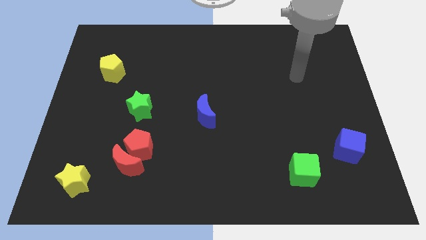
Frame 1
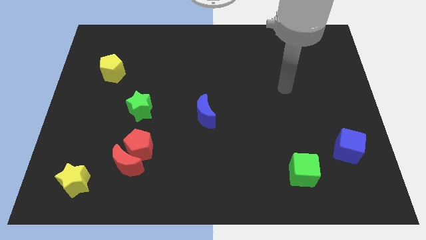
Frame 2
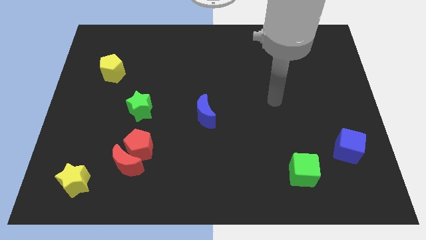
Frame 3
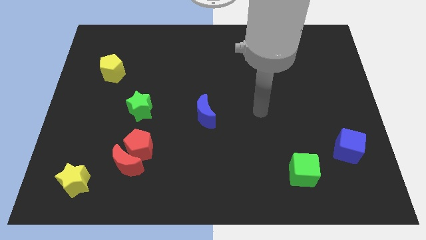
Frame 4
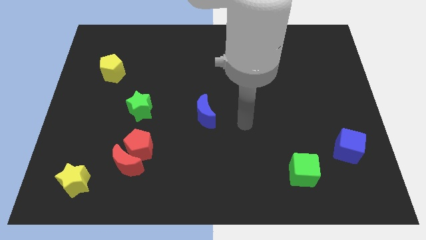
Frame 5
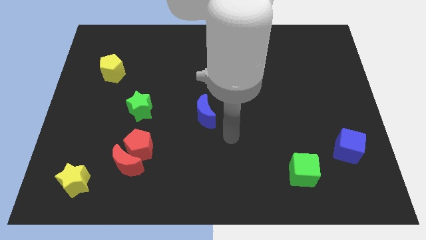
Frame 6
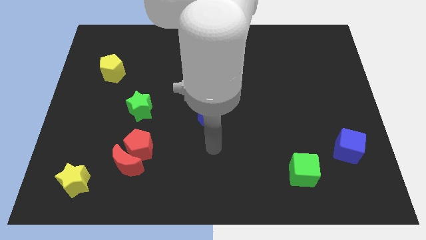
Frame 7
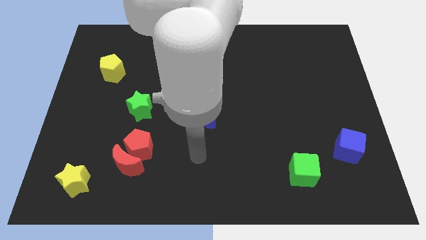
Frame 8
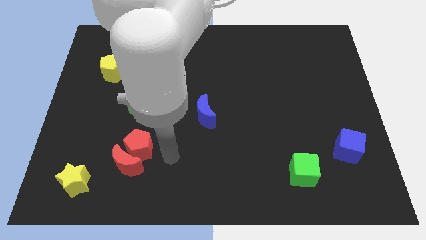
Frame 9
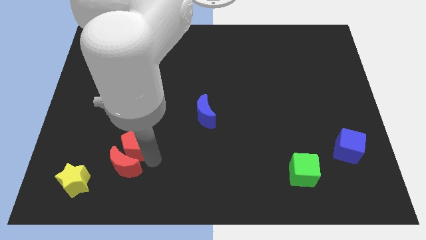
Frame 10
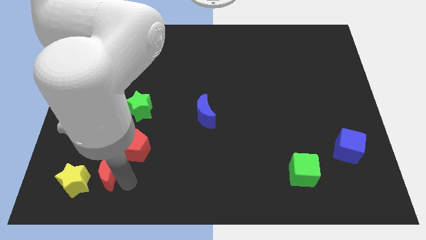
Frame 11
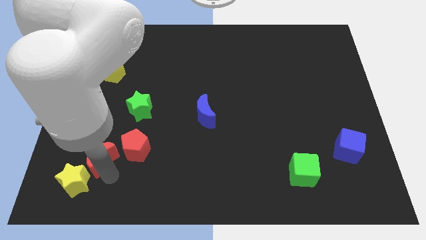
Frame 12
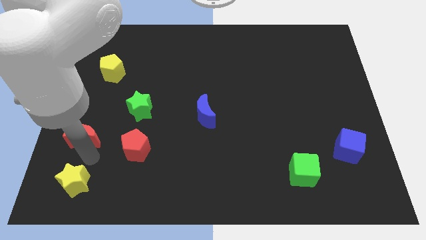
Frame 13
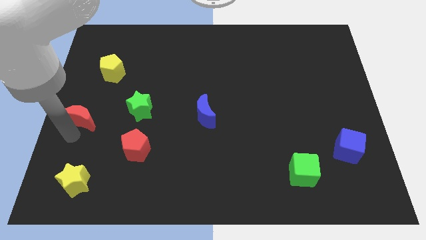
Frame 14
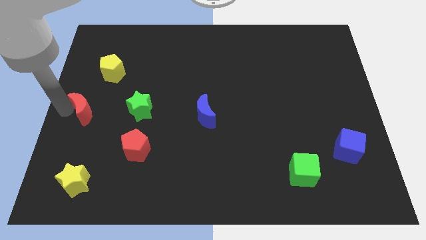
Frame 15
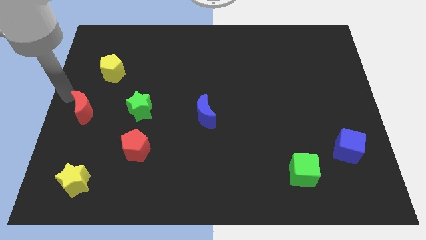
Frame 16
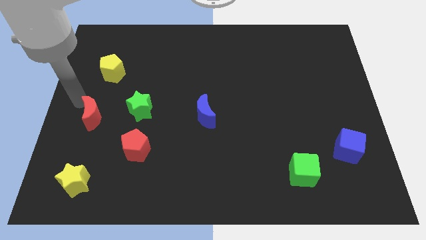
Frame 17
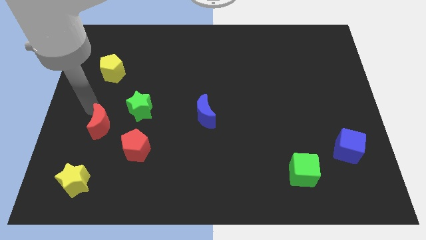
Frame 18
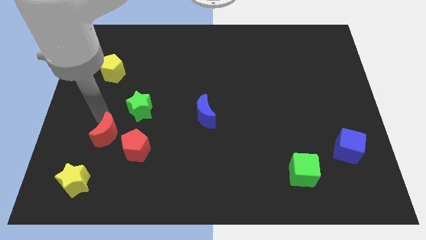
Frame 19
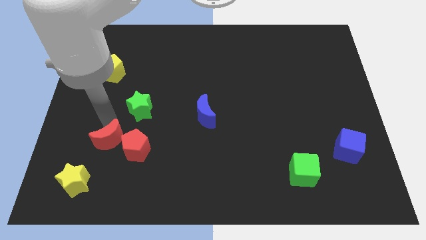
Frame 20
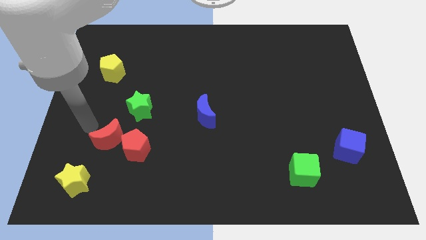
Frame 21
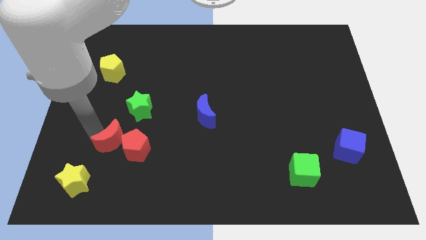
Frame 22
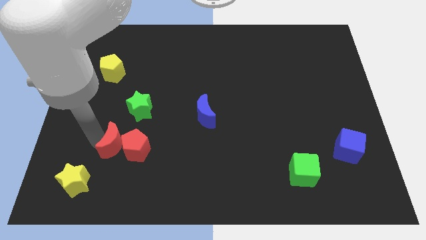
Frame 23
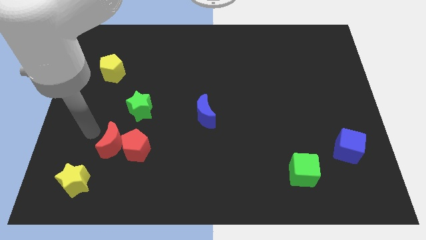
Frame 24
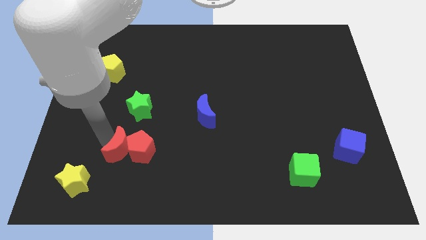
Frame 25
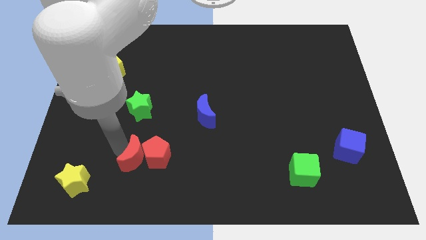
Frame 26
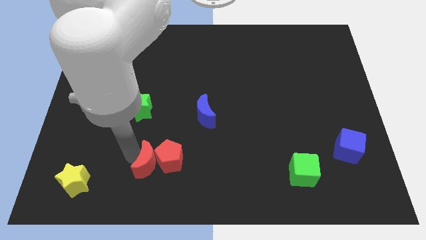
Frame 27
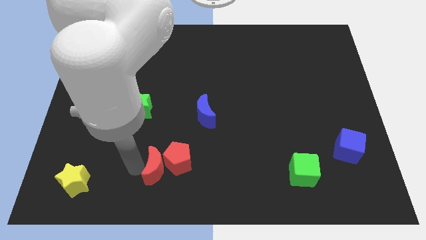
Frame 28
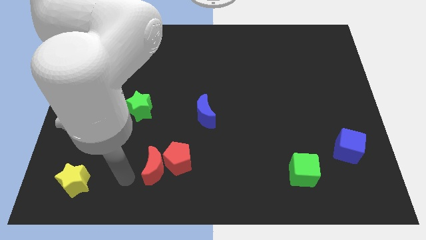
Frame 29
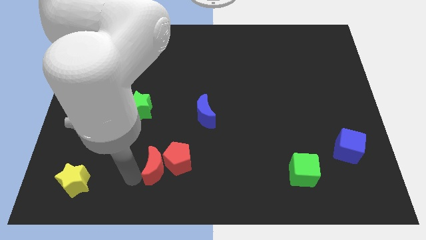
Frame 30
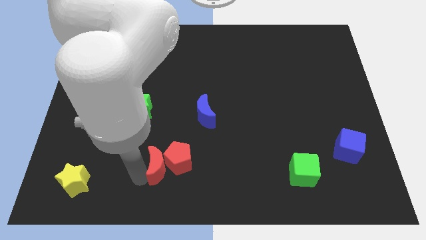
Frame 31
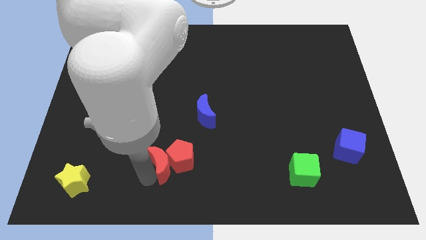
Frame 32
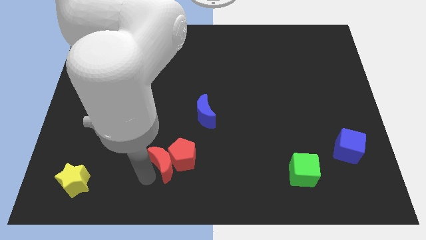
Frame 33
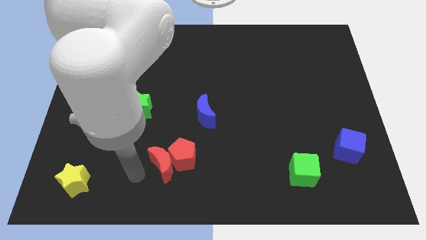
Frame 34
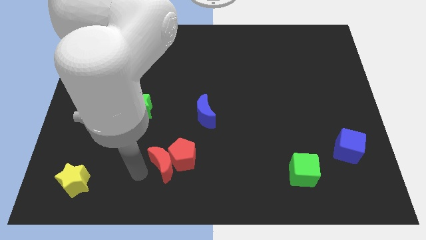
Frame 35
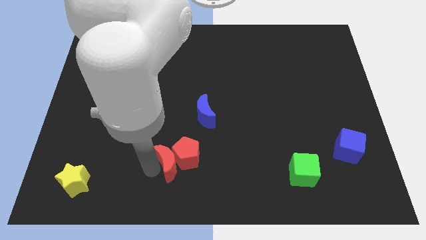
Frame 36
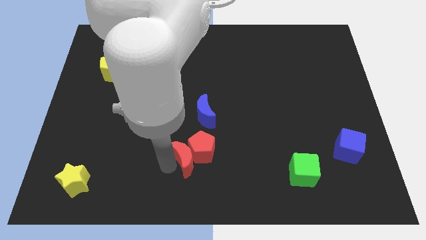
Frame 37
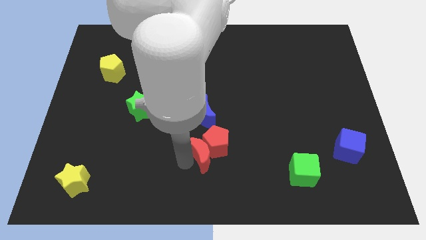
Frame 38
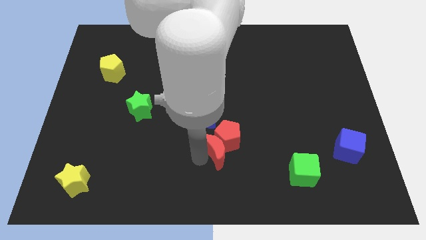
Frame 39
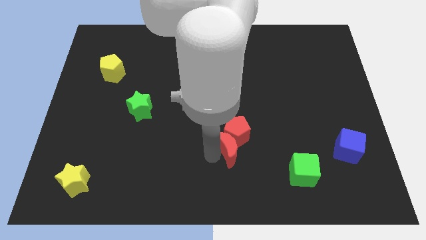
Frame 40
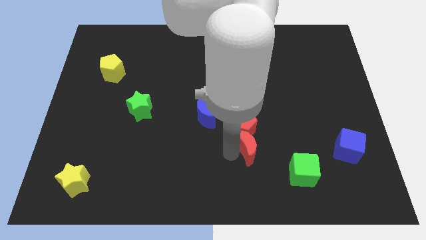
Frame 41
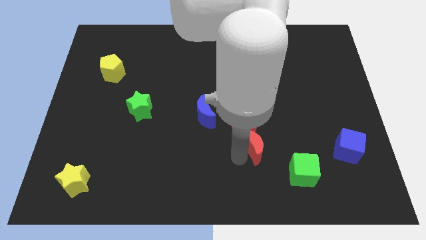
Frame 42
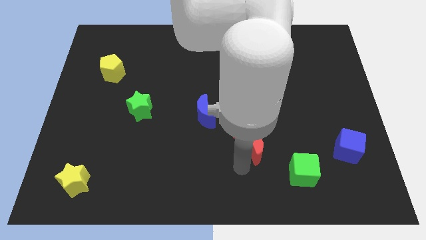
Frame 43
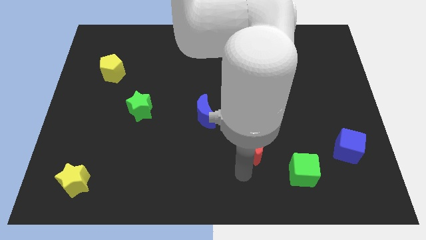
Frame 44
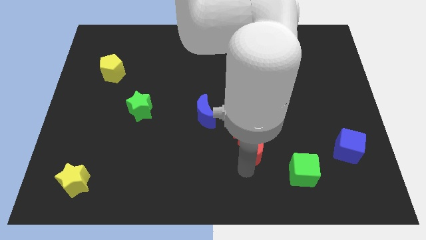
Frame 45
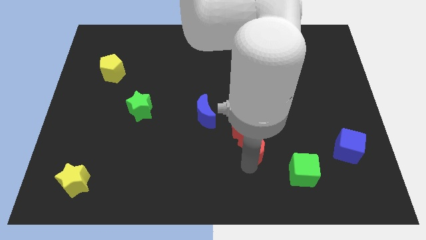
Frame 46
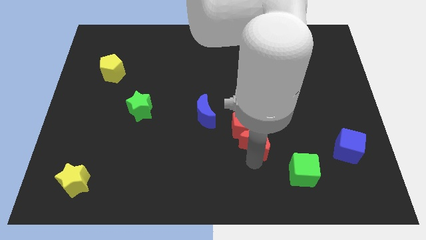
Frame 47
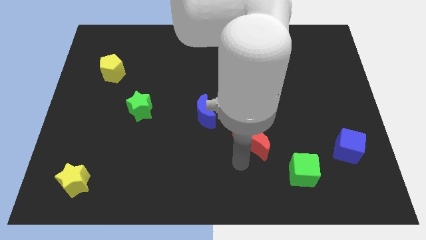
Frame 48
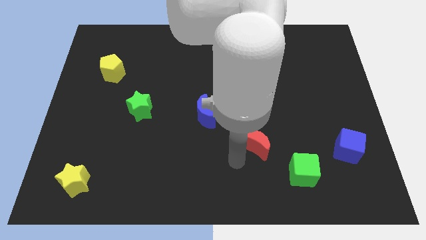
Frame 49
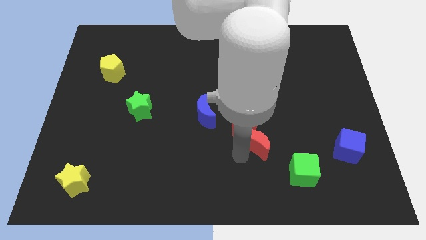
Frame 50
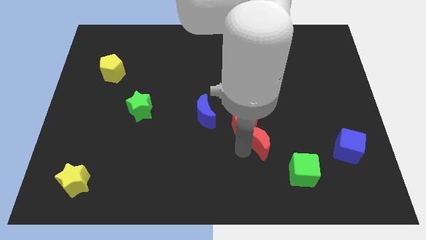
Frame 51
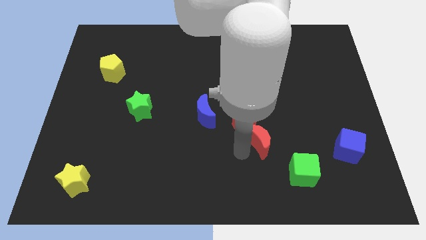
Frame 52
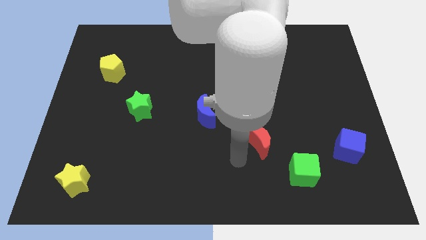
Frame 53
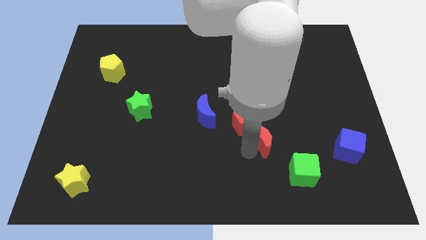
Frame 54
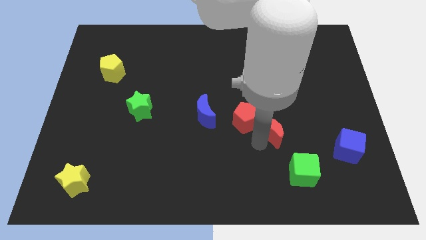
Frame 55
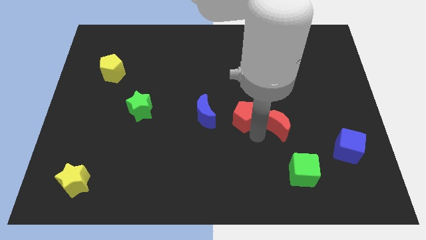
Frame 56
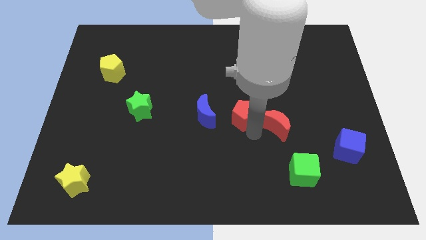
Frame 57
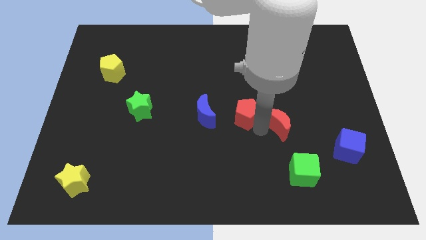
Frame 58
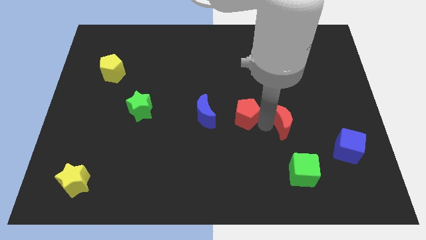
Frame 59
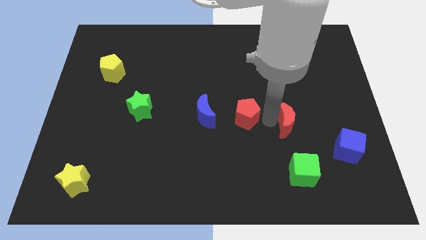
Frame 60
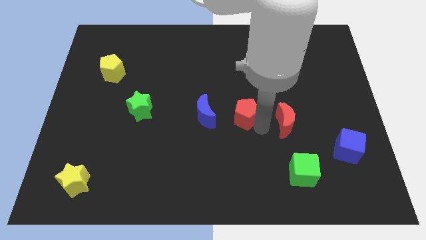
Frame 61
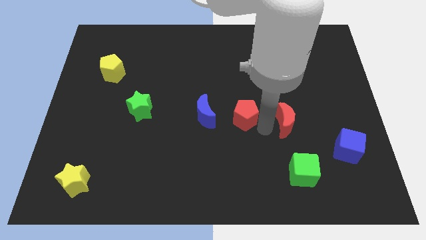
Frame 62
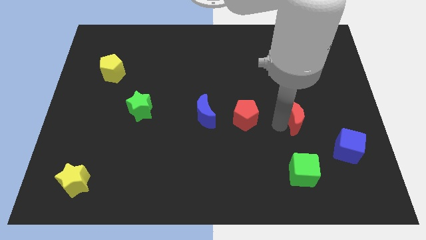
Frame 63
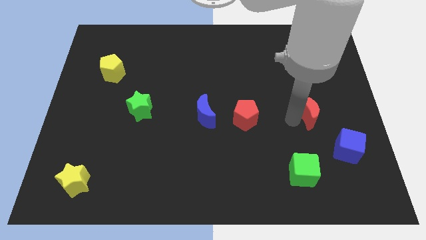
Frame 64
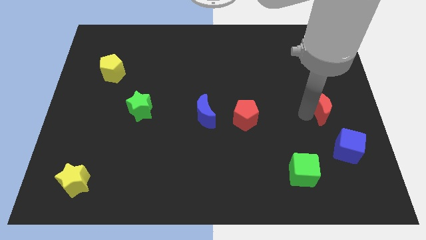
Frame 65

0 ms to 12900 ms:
push the red moon to the top side of the blue cube
